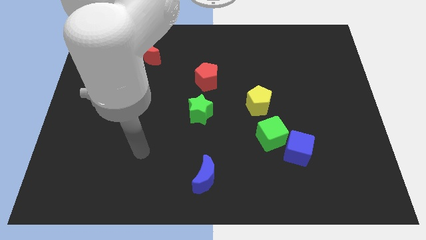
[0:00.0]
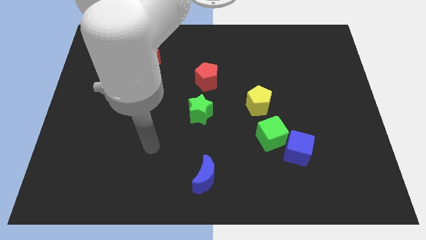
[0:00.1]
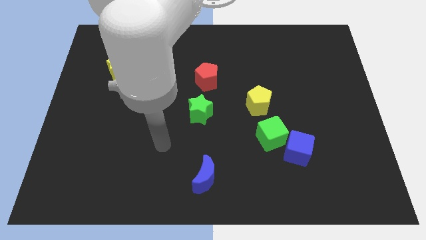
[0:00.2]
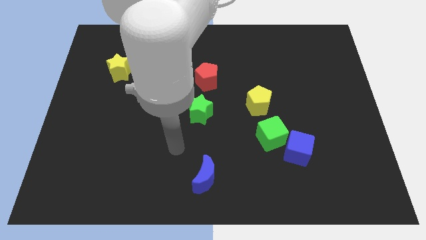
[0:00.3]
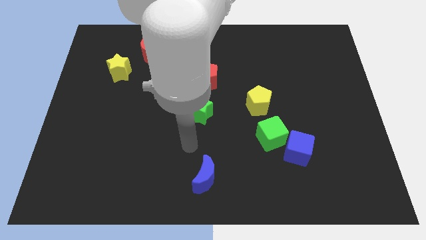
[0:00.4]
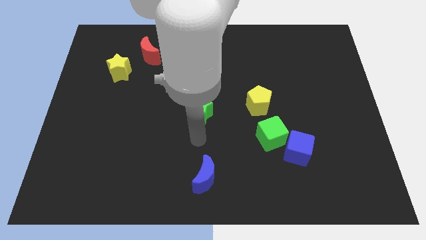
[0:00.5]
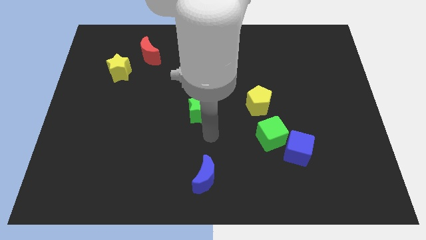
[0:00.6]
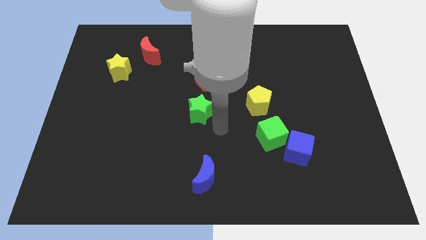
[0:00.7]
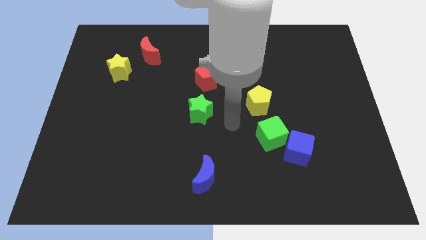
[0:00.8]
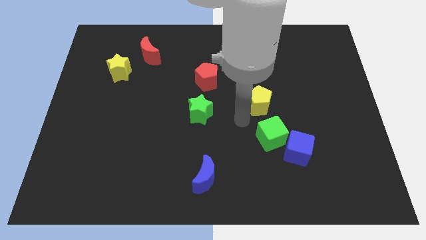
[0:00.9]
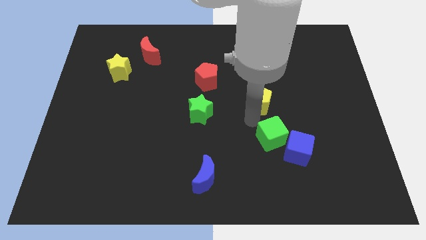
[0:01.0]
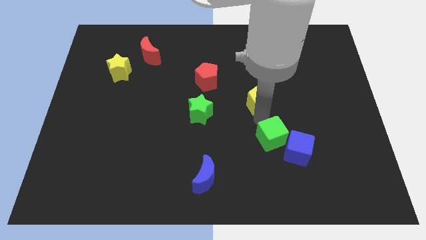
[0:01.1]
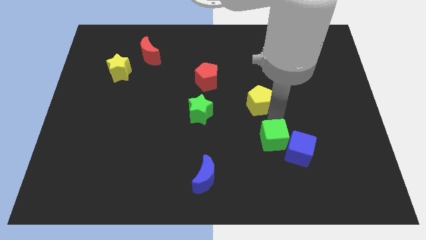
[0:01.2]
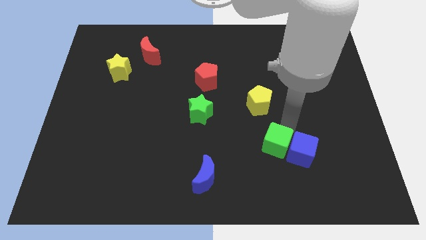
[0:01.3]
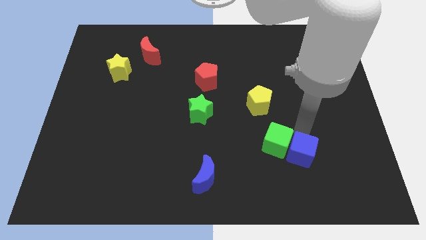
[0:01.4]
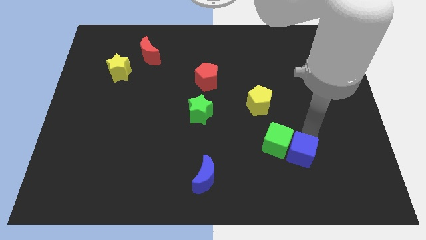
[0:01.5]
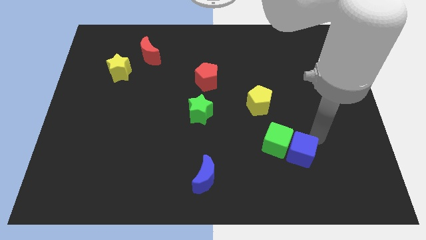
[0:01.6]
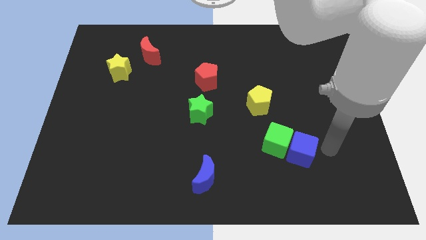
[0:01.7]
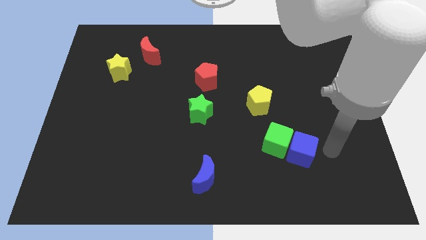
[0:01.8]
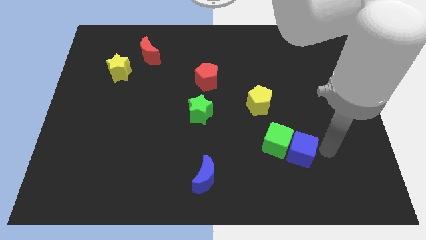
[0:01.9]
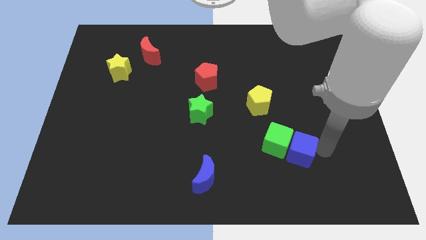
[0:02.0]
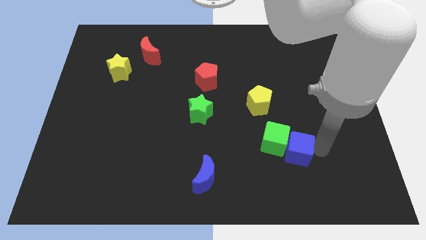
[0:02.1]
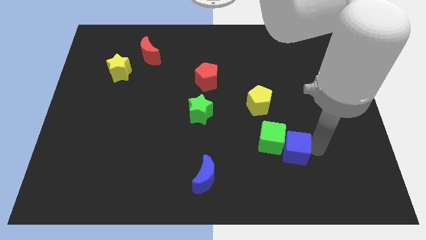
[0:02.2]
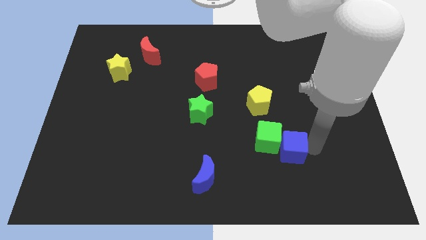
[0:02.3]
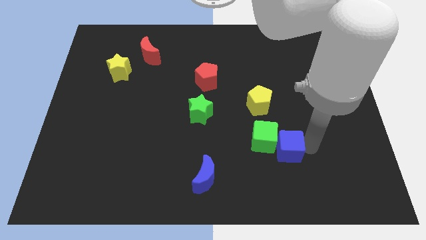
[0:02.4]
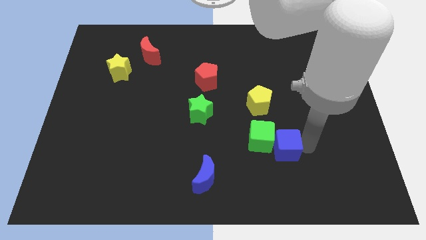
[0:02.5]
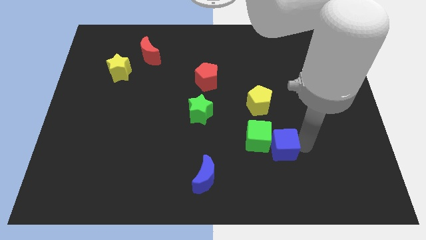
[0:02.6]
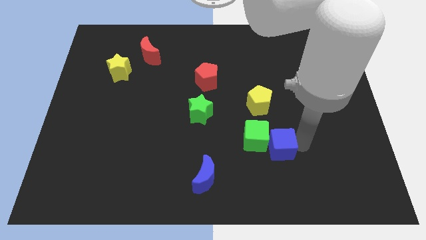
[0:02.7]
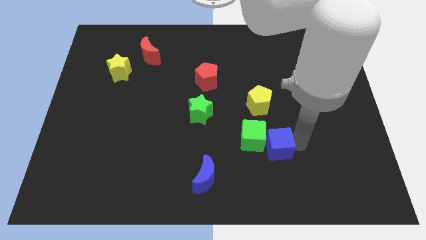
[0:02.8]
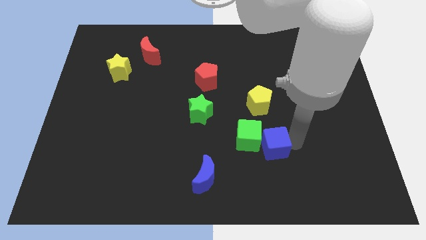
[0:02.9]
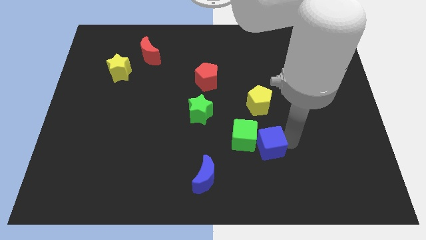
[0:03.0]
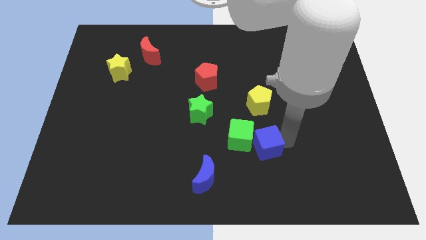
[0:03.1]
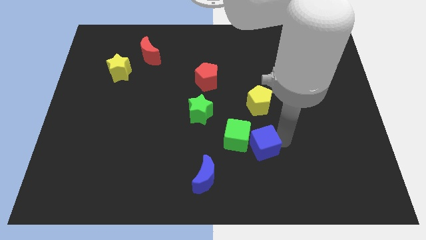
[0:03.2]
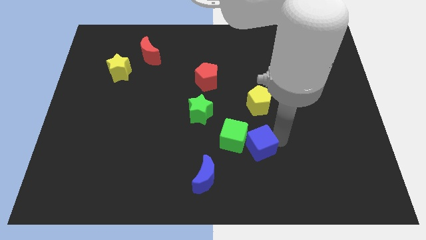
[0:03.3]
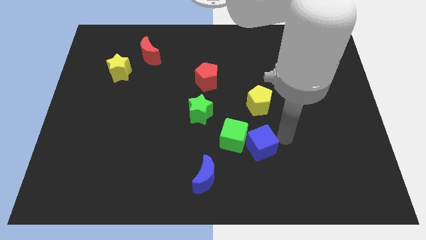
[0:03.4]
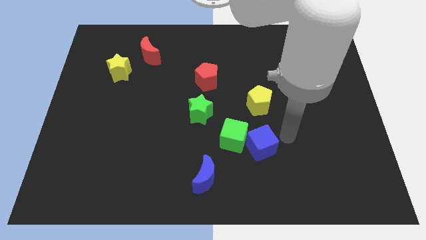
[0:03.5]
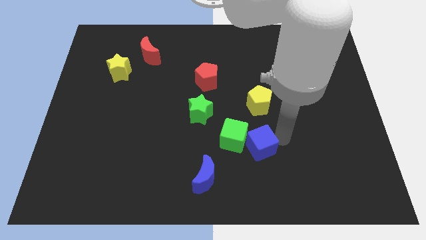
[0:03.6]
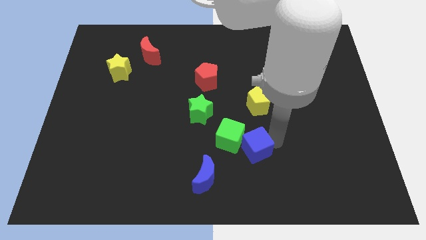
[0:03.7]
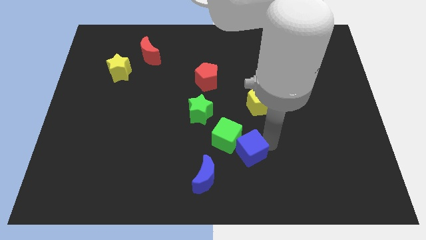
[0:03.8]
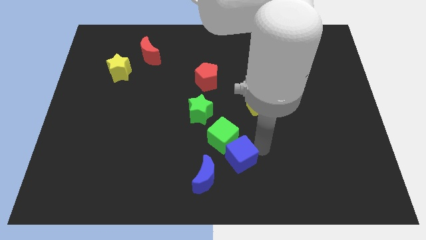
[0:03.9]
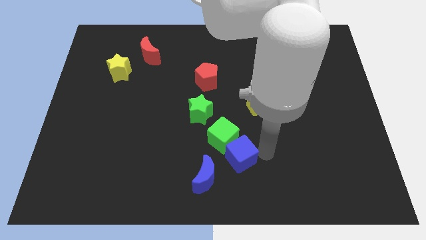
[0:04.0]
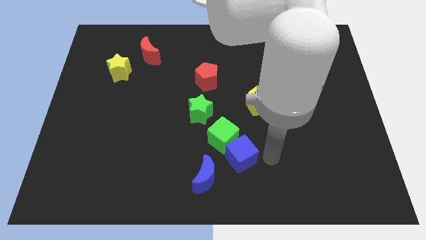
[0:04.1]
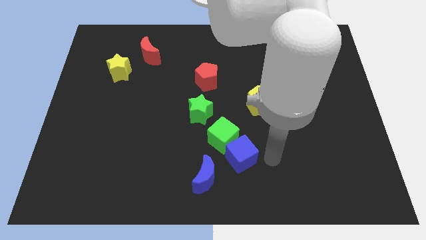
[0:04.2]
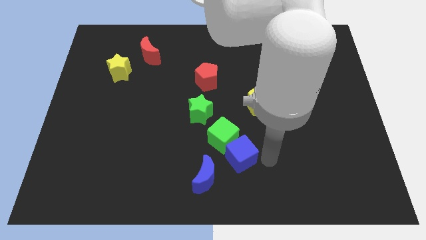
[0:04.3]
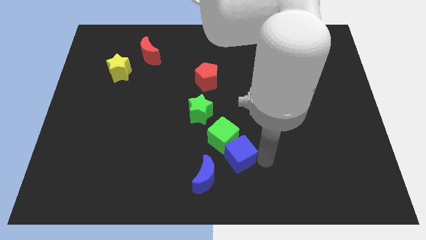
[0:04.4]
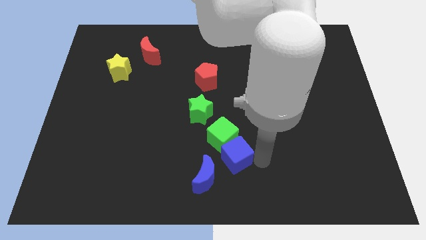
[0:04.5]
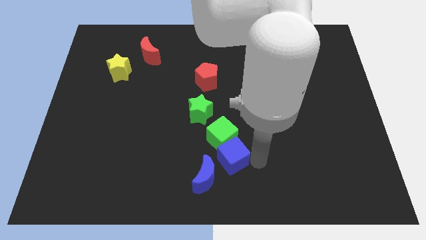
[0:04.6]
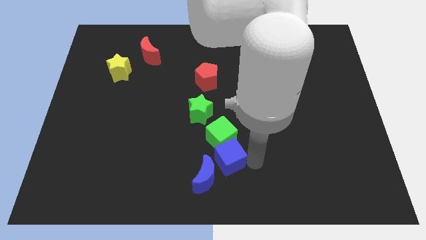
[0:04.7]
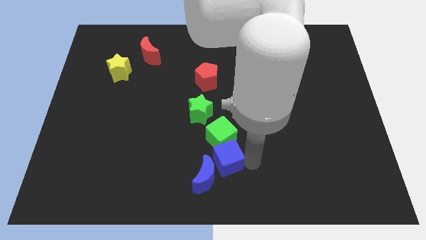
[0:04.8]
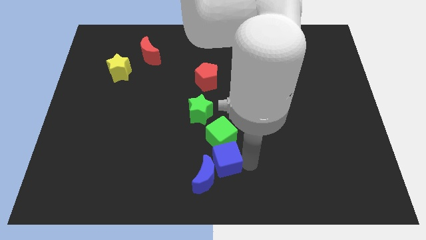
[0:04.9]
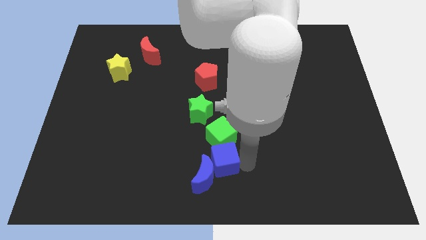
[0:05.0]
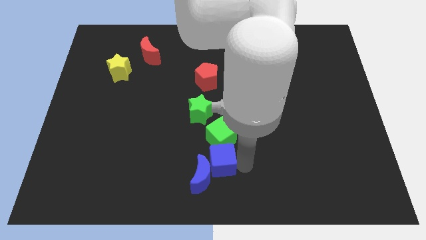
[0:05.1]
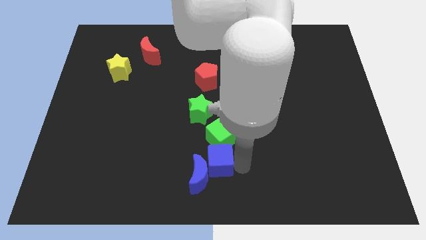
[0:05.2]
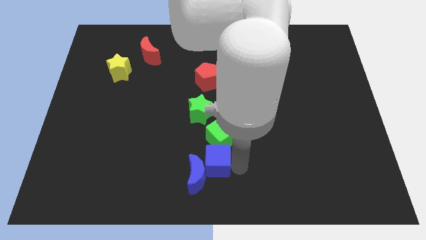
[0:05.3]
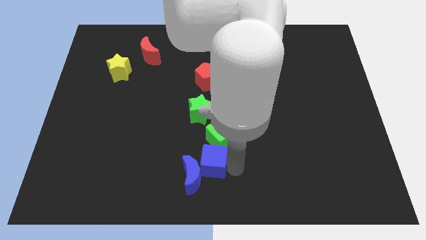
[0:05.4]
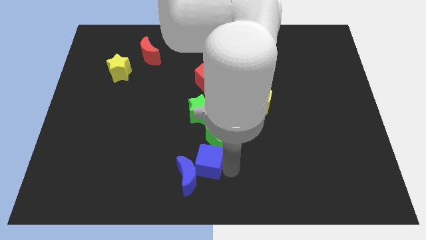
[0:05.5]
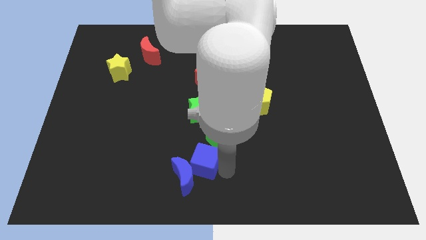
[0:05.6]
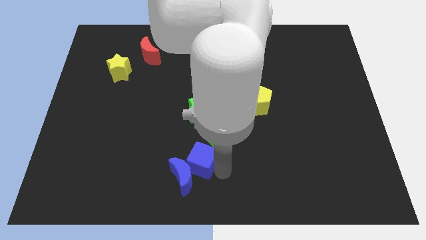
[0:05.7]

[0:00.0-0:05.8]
slide the blue cube left

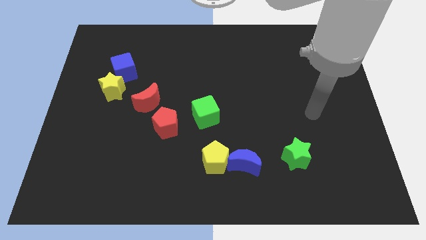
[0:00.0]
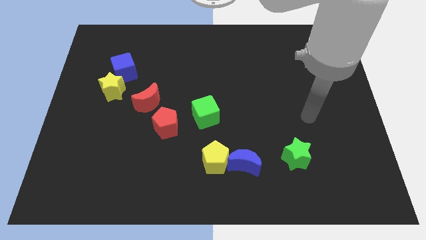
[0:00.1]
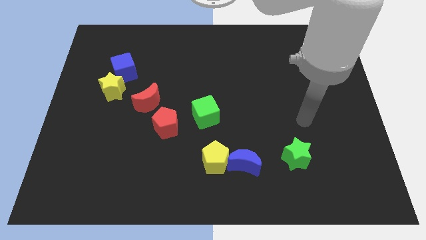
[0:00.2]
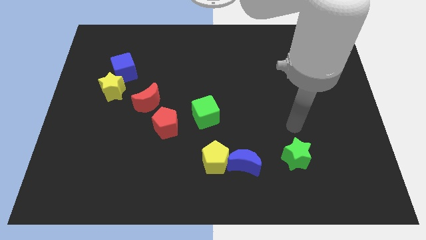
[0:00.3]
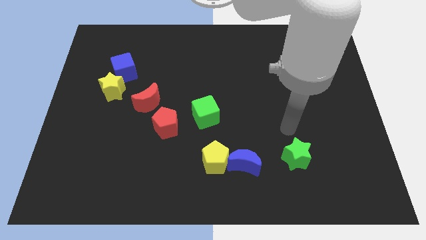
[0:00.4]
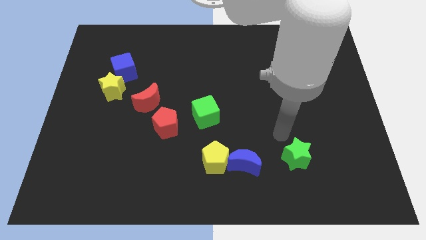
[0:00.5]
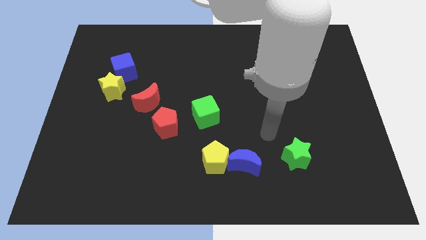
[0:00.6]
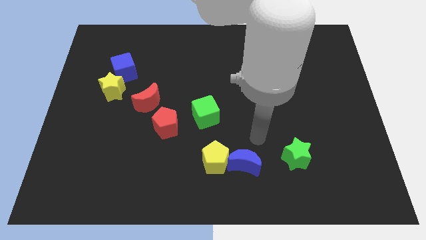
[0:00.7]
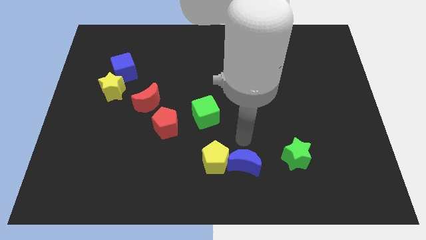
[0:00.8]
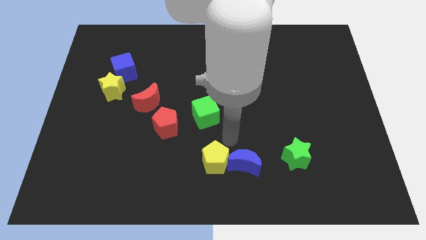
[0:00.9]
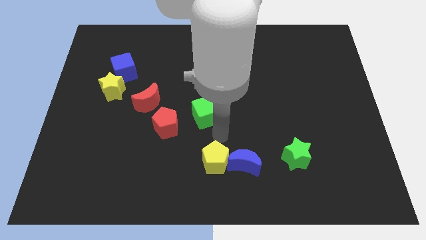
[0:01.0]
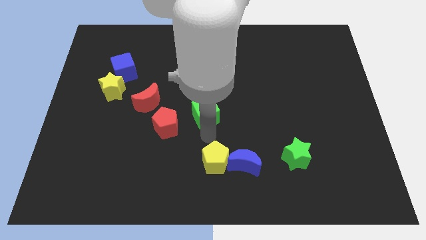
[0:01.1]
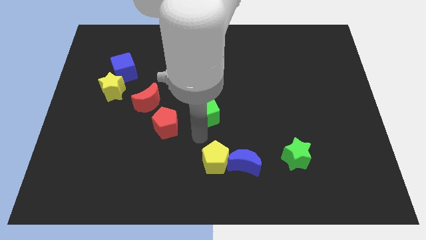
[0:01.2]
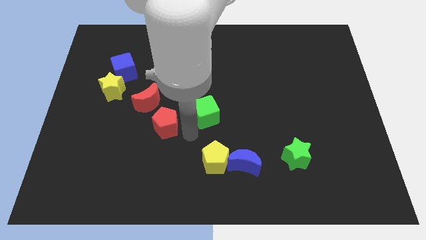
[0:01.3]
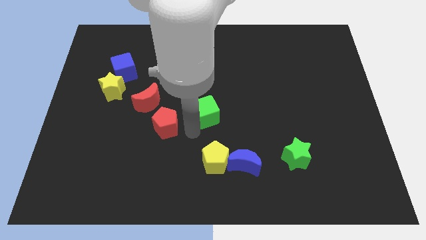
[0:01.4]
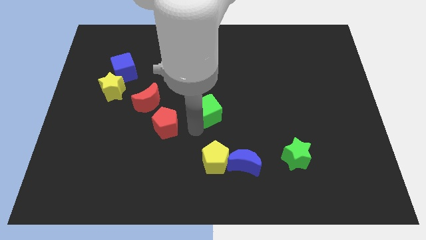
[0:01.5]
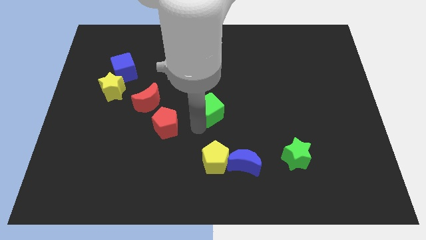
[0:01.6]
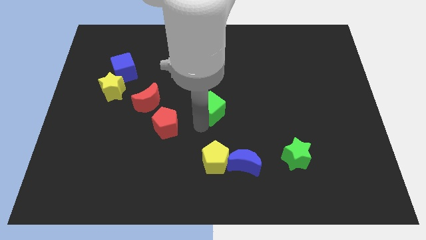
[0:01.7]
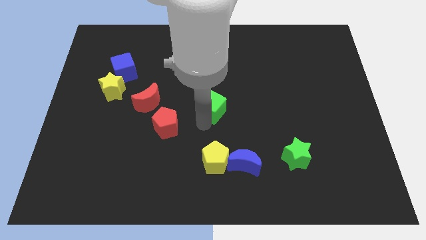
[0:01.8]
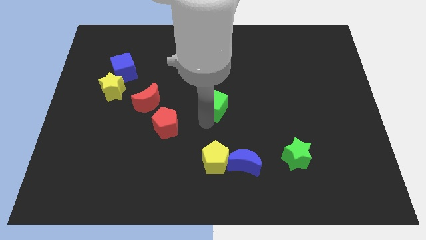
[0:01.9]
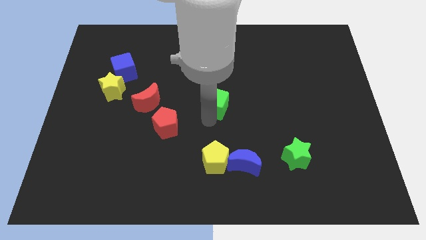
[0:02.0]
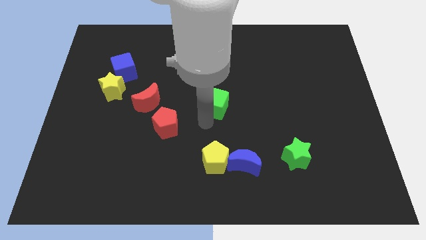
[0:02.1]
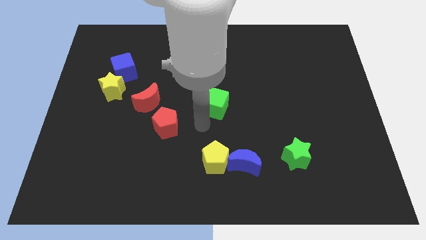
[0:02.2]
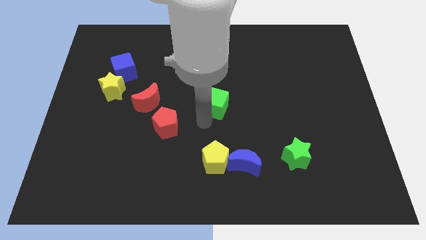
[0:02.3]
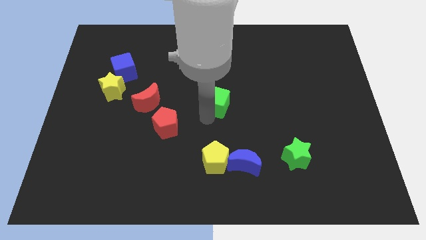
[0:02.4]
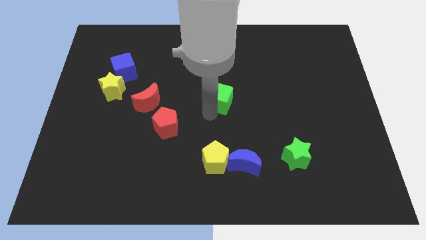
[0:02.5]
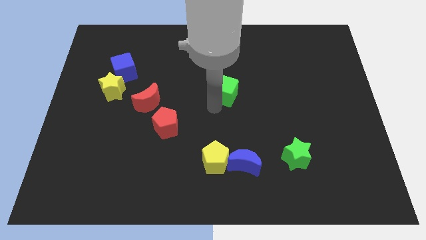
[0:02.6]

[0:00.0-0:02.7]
slightly push the green cube upwards and to the right diagonally

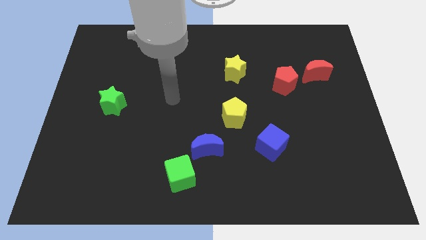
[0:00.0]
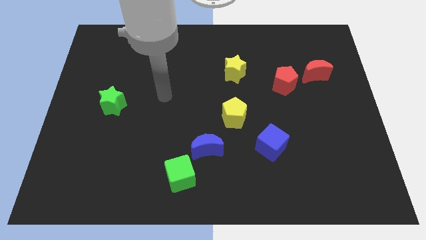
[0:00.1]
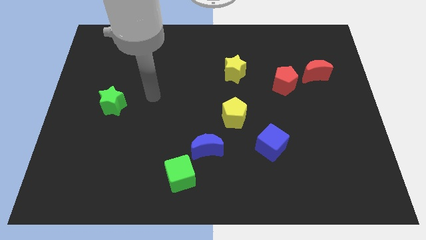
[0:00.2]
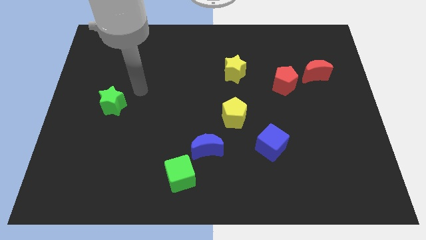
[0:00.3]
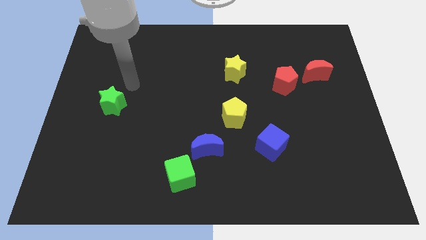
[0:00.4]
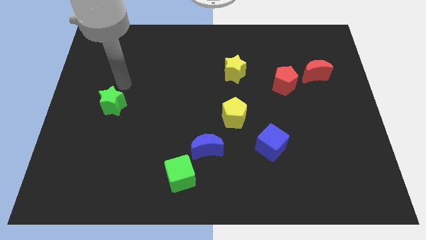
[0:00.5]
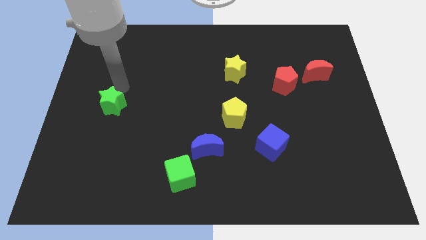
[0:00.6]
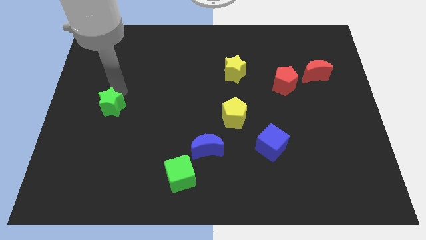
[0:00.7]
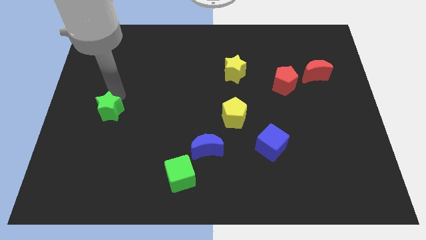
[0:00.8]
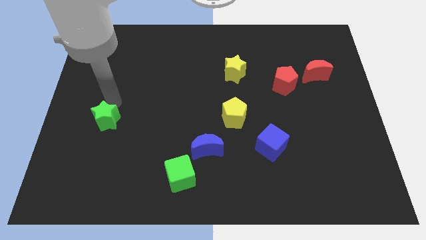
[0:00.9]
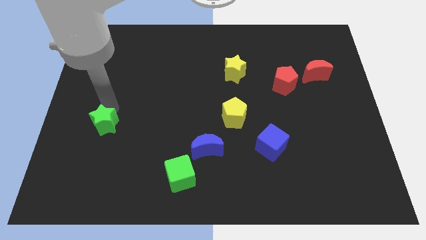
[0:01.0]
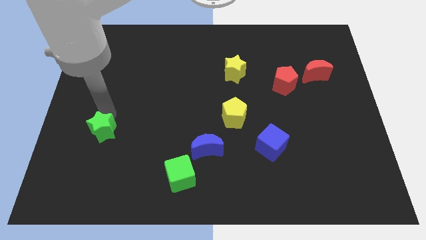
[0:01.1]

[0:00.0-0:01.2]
slide the green star a little downwards
